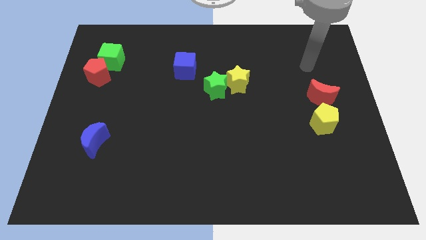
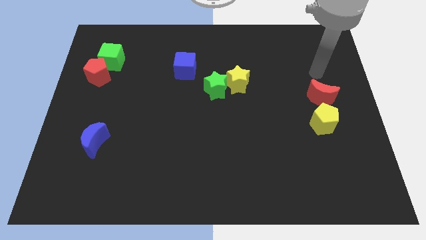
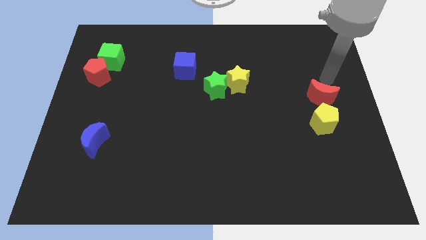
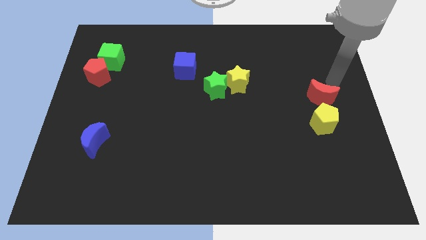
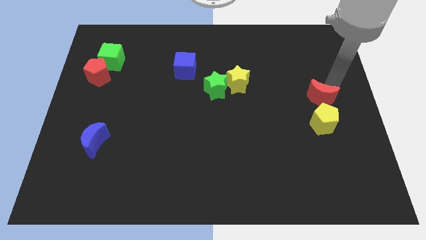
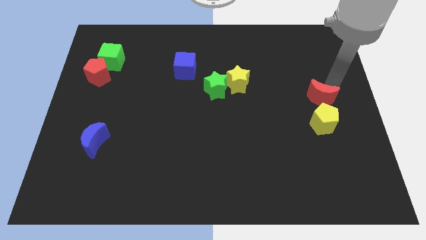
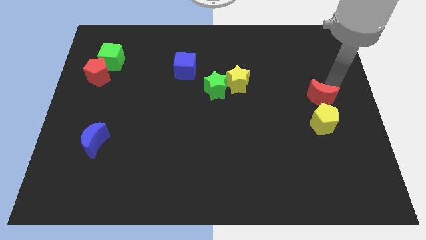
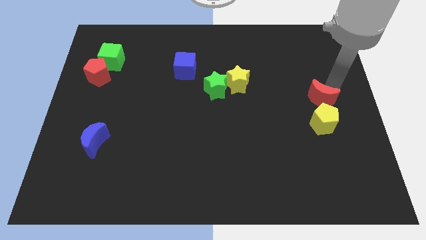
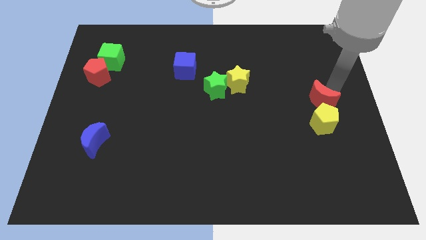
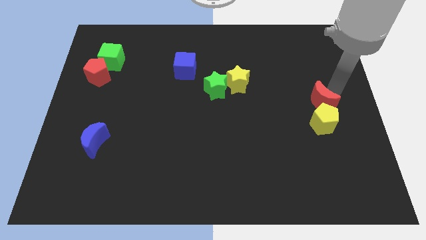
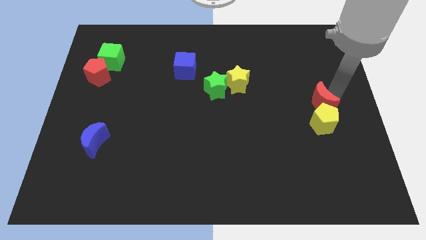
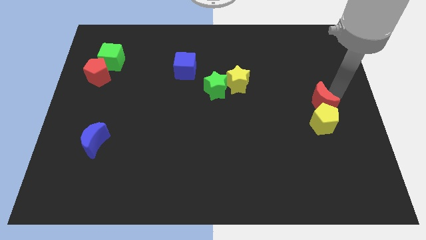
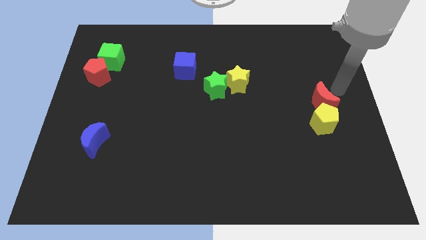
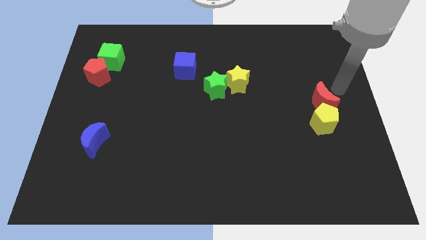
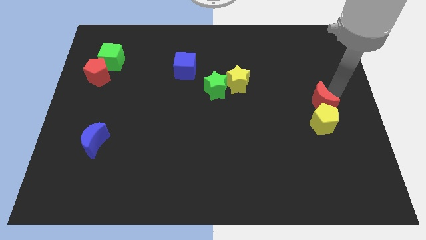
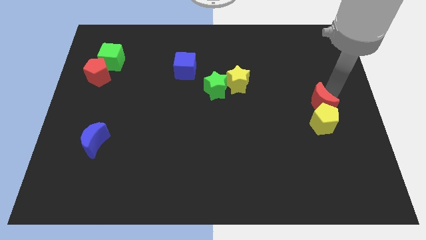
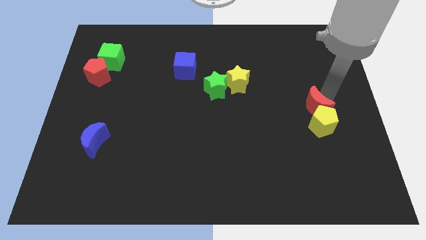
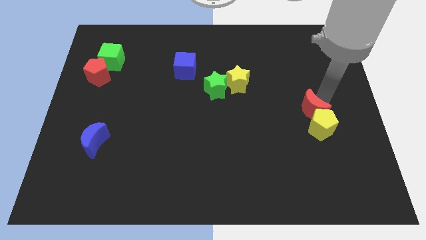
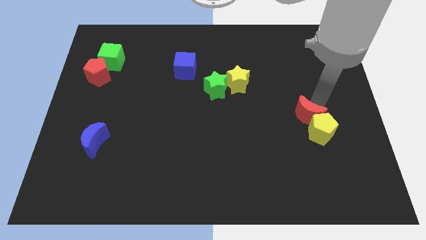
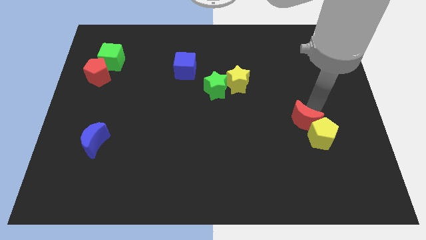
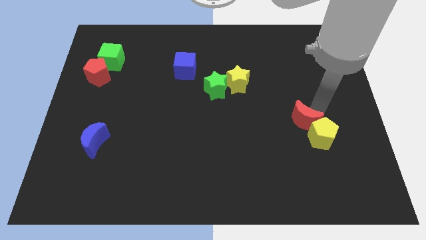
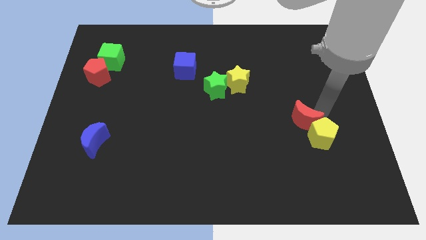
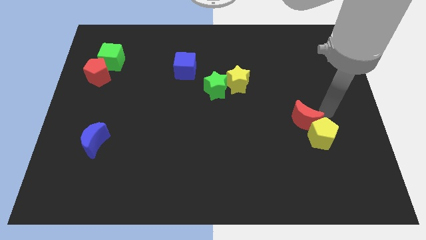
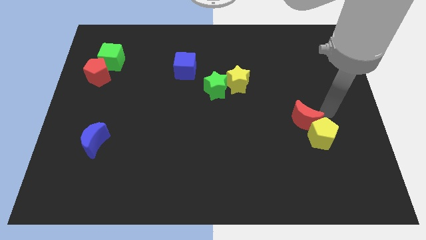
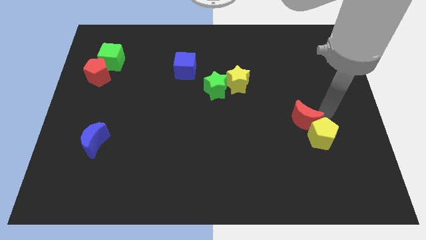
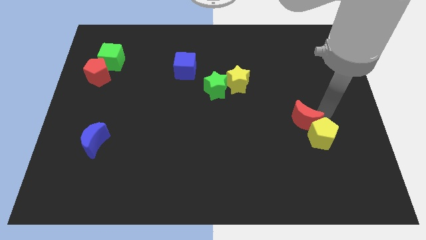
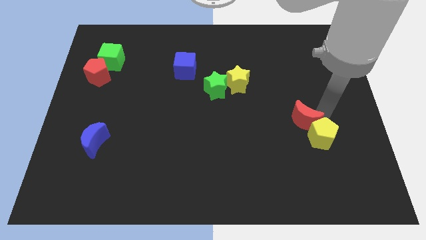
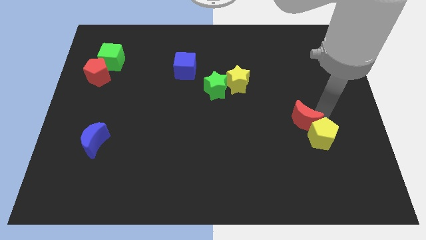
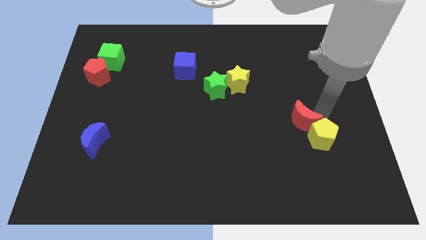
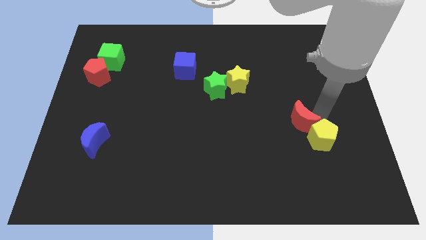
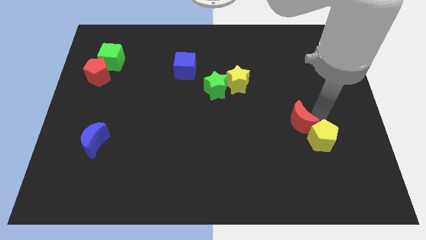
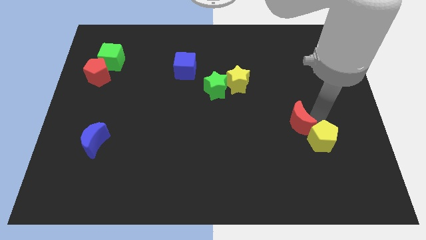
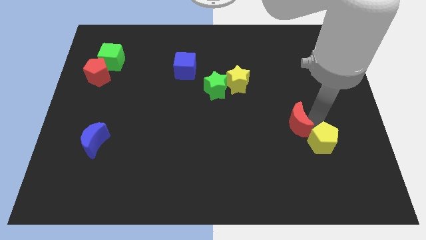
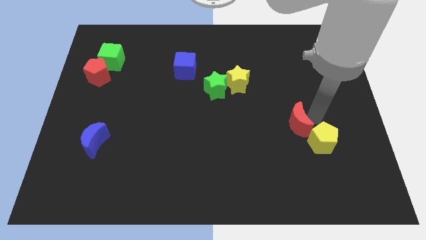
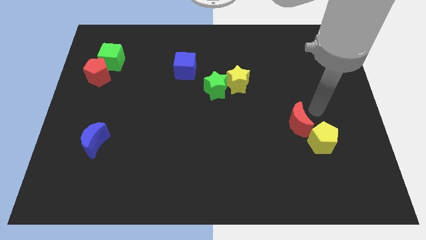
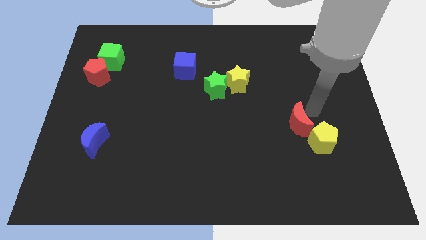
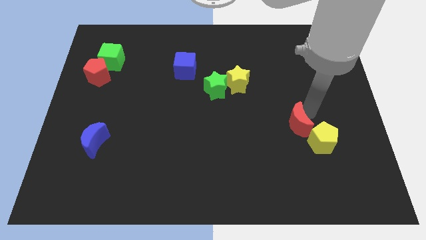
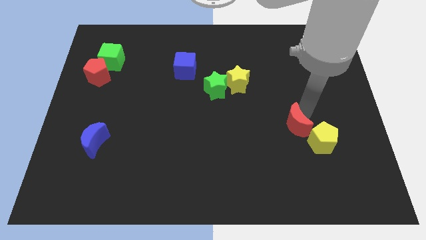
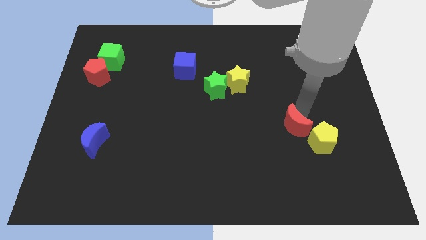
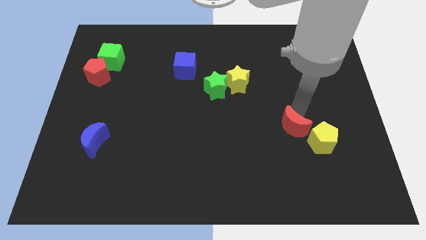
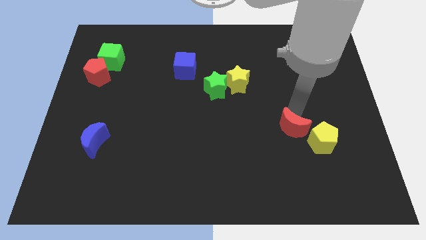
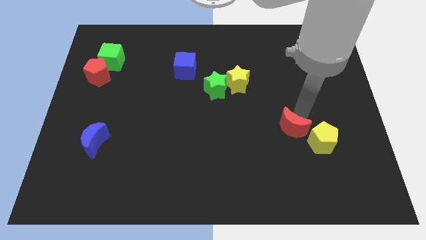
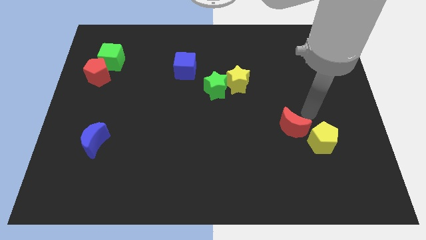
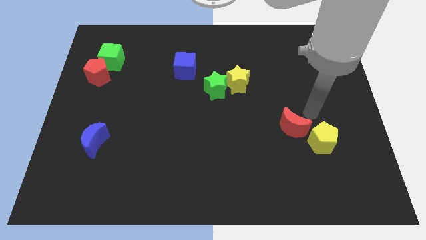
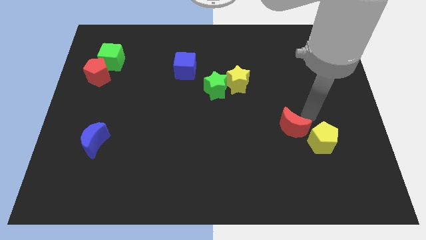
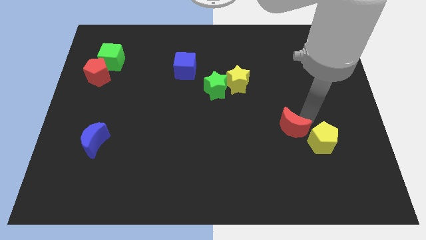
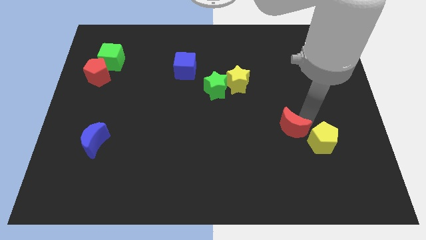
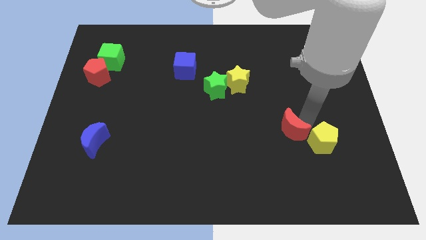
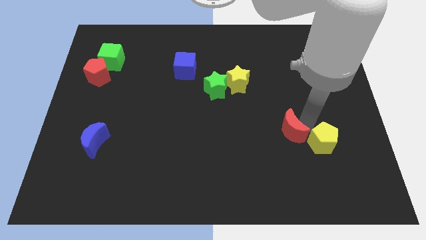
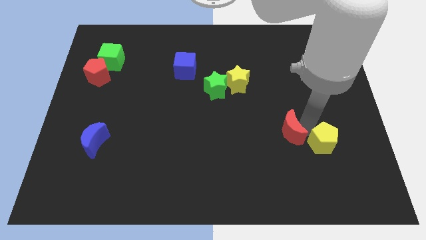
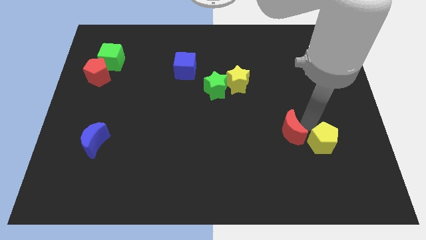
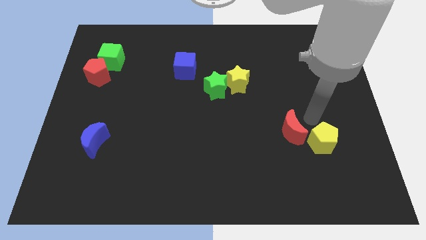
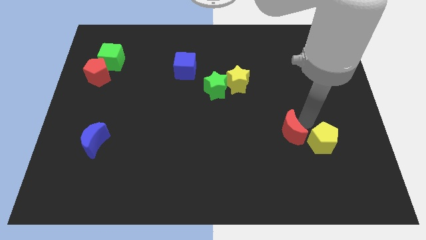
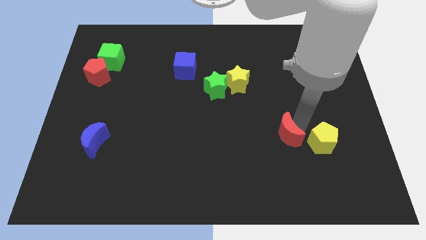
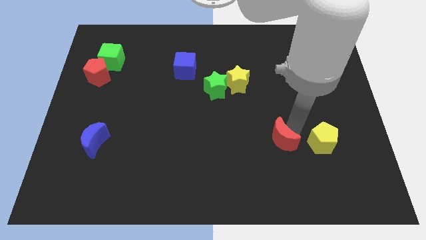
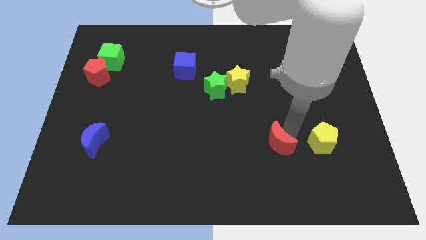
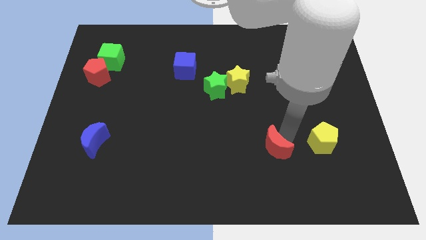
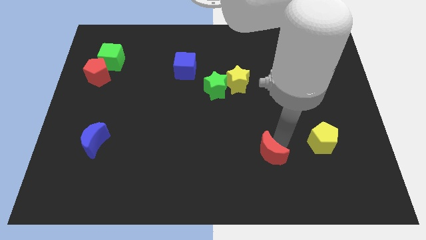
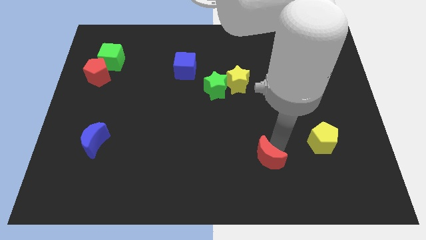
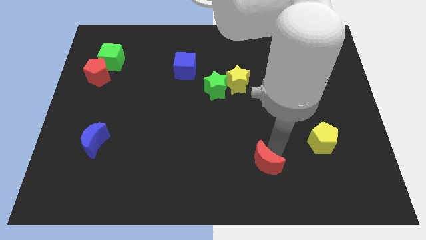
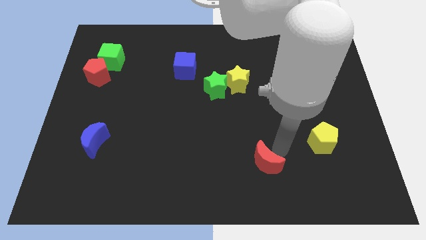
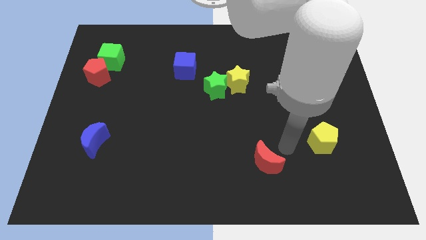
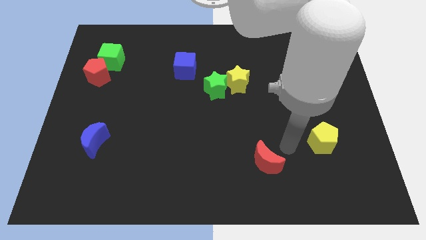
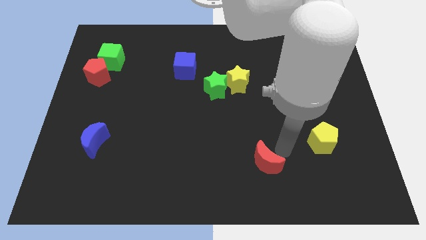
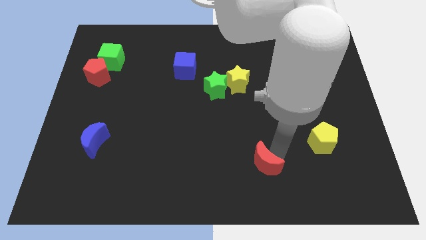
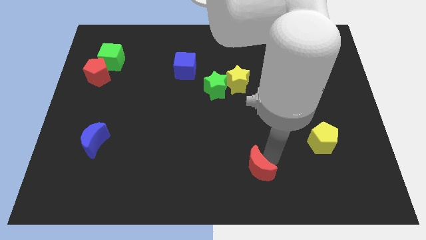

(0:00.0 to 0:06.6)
put the red moon to the bottom side
